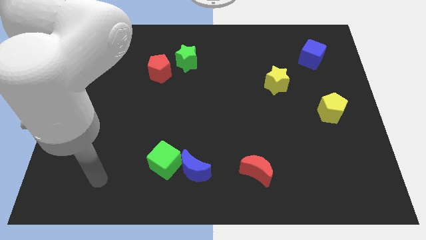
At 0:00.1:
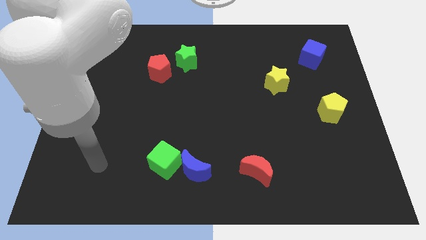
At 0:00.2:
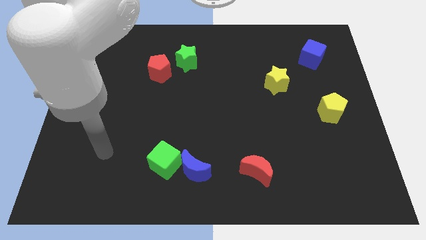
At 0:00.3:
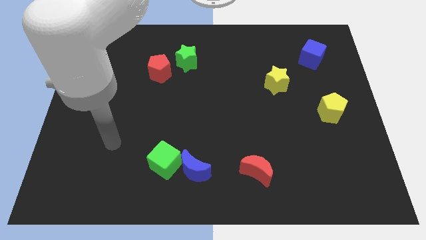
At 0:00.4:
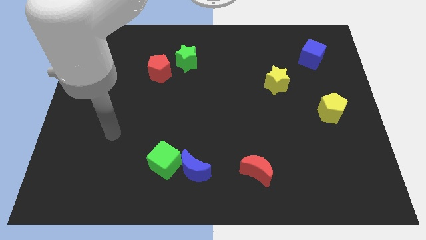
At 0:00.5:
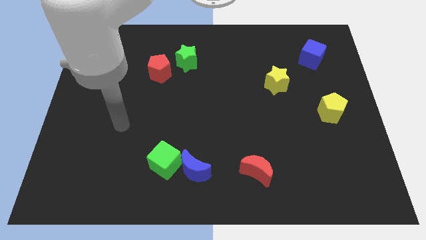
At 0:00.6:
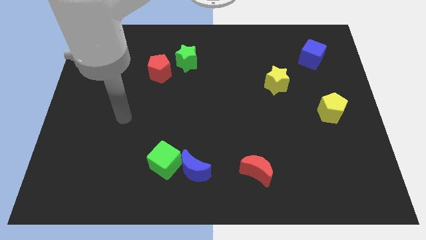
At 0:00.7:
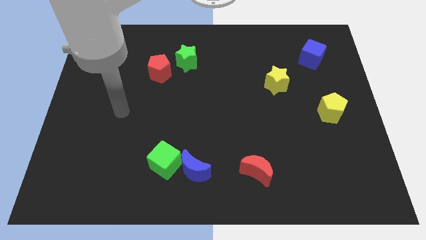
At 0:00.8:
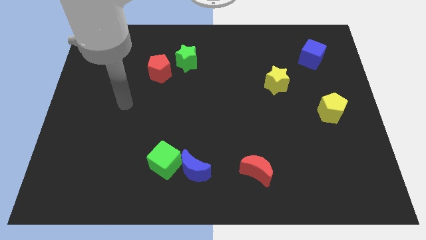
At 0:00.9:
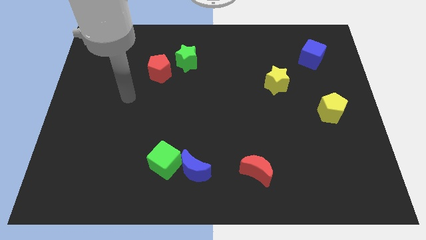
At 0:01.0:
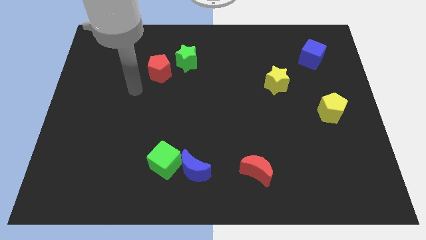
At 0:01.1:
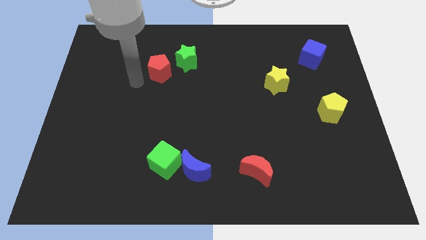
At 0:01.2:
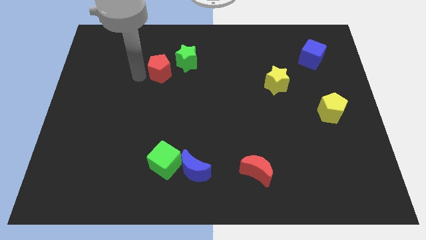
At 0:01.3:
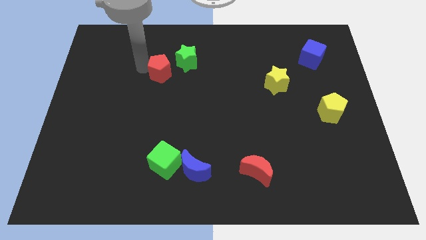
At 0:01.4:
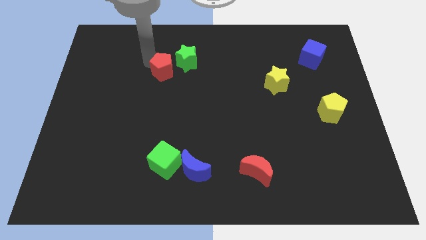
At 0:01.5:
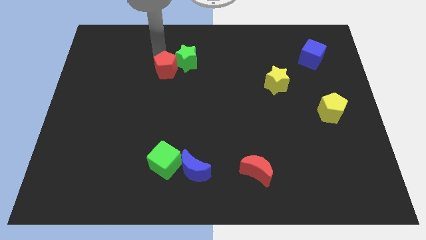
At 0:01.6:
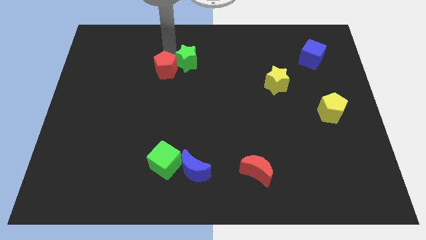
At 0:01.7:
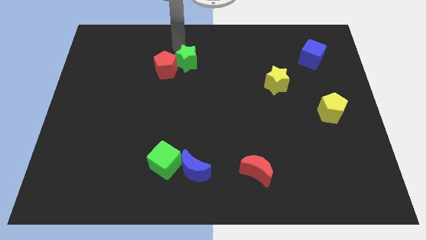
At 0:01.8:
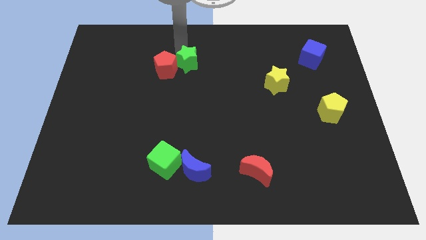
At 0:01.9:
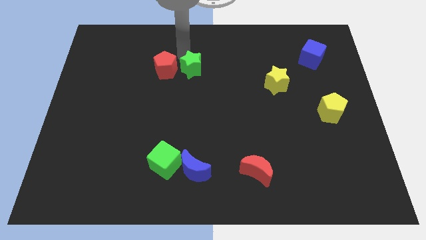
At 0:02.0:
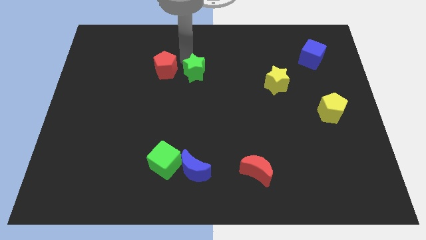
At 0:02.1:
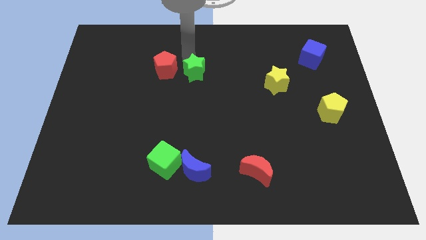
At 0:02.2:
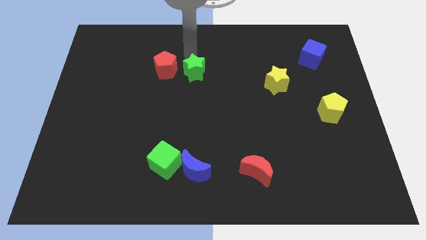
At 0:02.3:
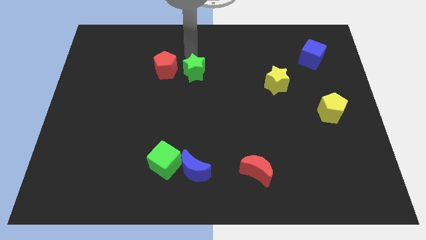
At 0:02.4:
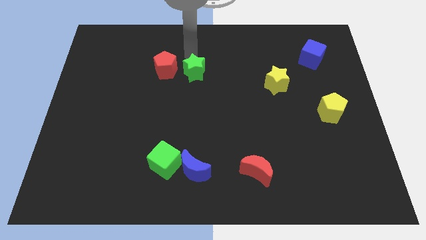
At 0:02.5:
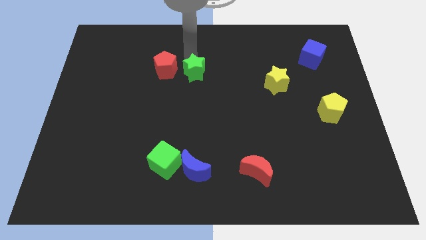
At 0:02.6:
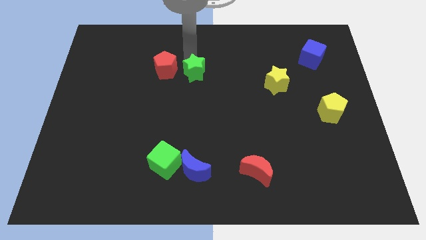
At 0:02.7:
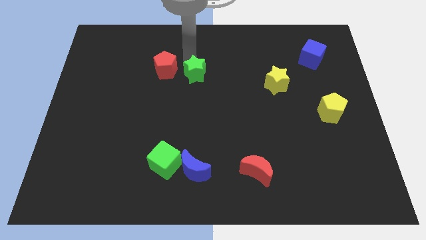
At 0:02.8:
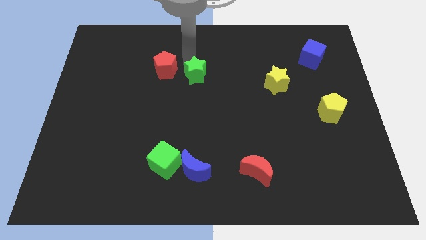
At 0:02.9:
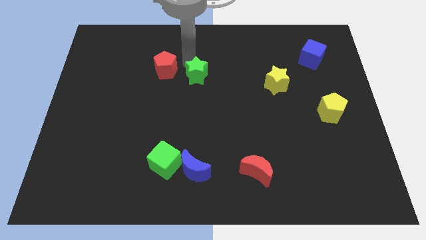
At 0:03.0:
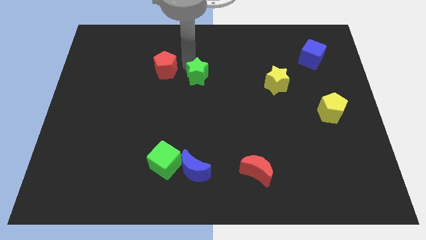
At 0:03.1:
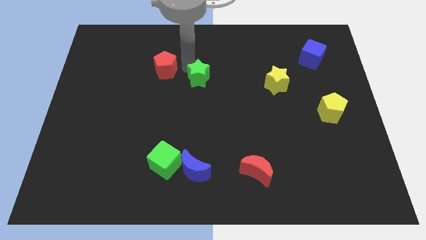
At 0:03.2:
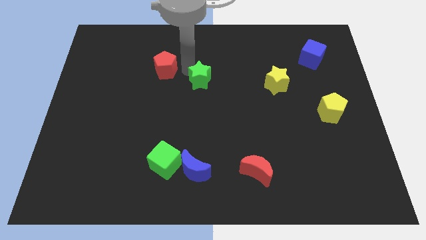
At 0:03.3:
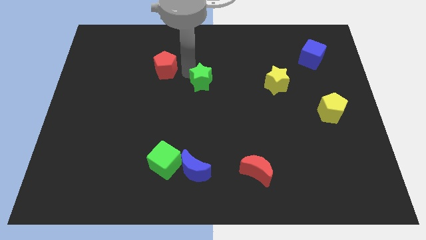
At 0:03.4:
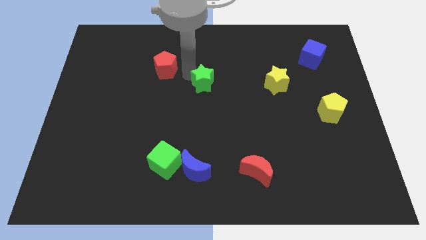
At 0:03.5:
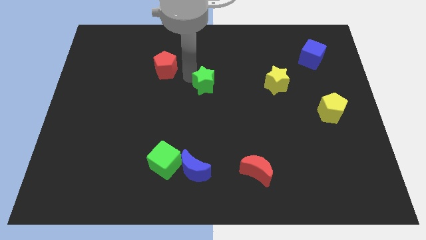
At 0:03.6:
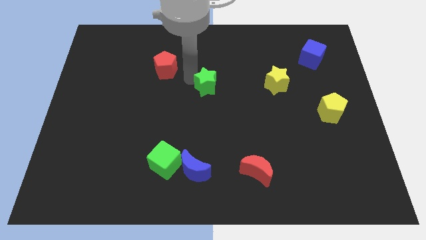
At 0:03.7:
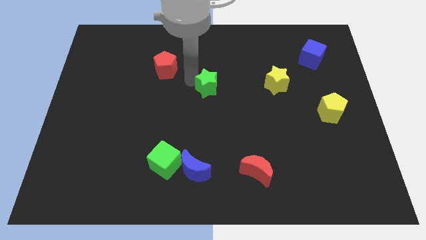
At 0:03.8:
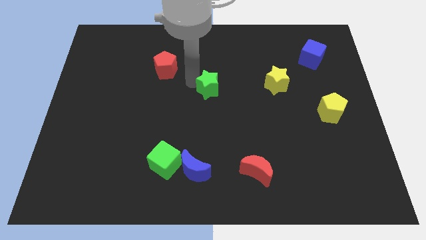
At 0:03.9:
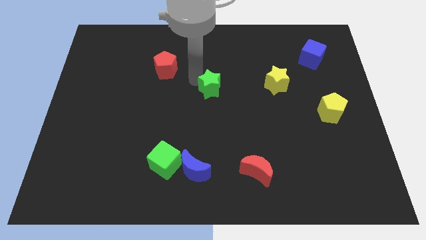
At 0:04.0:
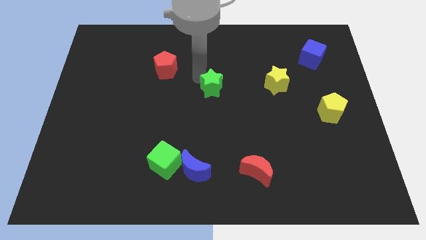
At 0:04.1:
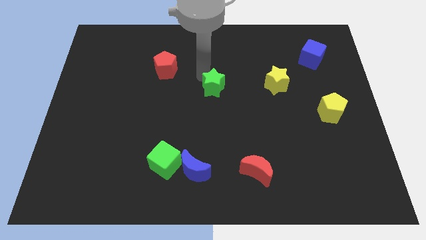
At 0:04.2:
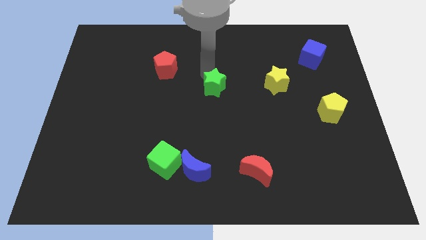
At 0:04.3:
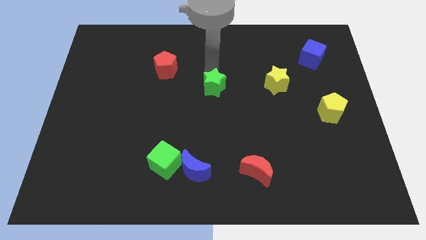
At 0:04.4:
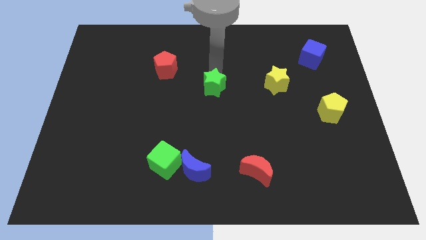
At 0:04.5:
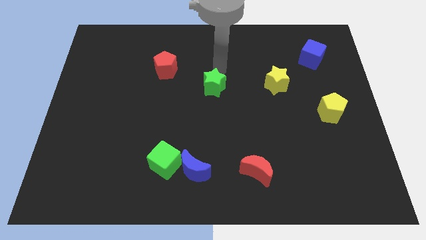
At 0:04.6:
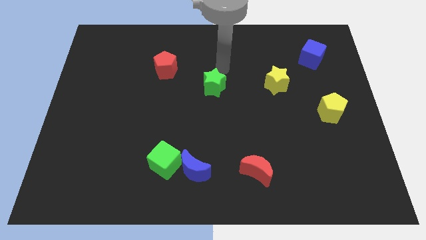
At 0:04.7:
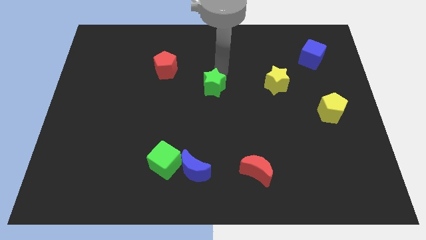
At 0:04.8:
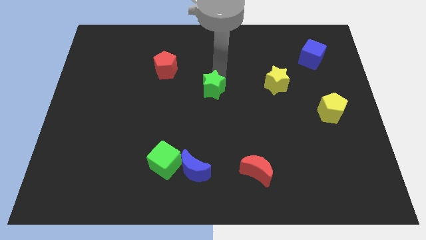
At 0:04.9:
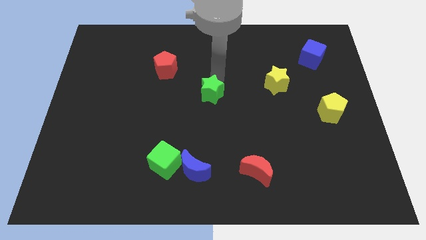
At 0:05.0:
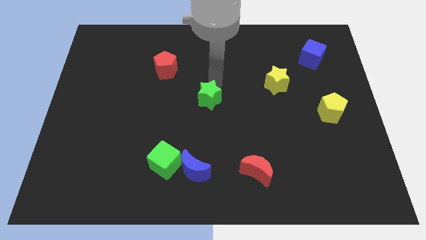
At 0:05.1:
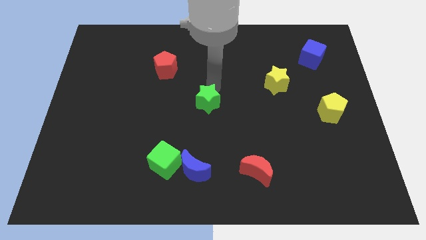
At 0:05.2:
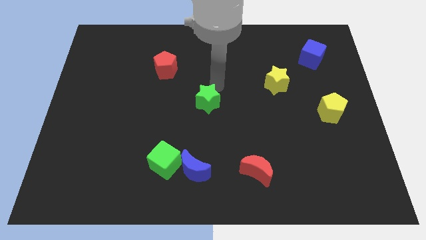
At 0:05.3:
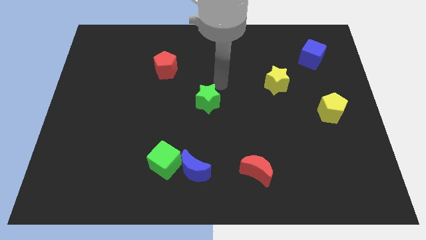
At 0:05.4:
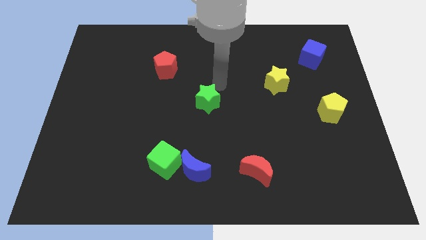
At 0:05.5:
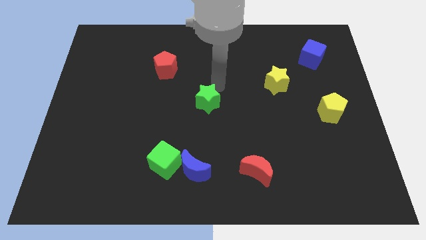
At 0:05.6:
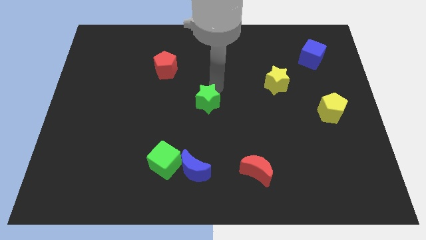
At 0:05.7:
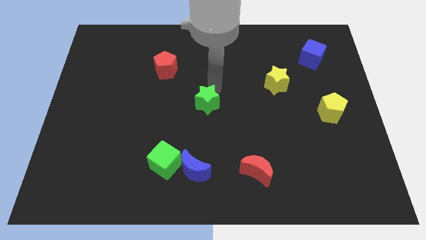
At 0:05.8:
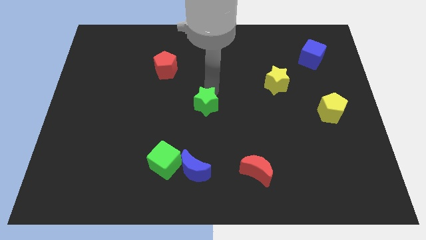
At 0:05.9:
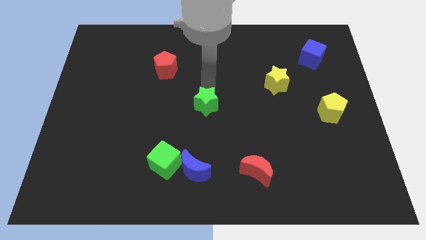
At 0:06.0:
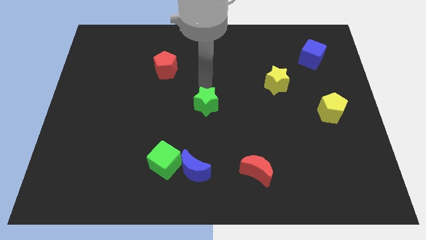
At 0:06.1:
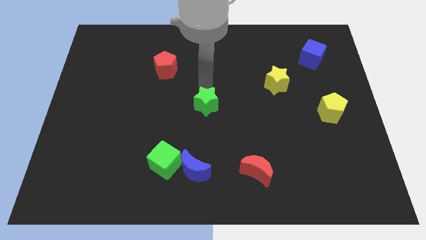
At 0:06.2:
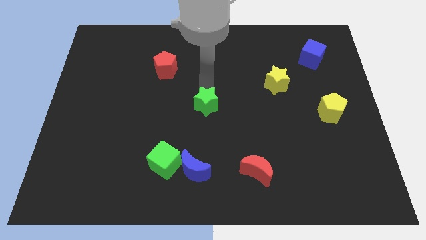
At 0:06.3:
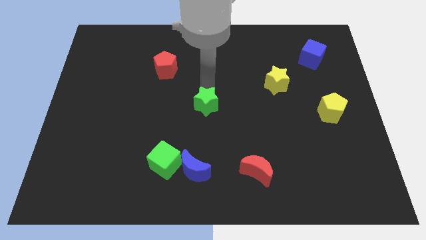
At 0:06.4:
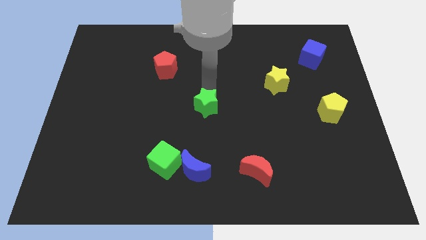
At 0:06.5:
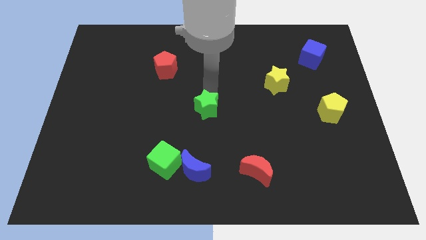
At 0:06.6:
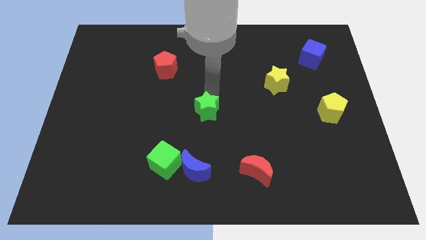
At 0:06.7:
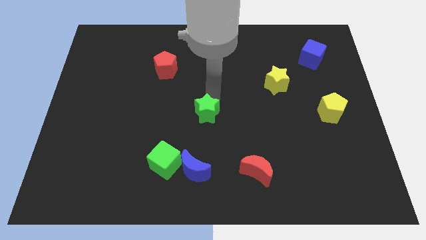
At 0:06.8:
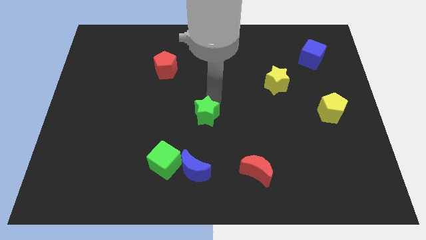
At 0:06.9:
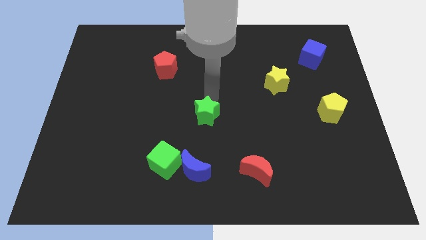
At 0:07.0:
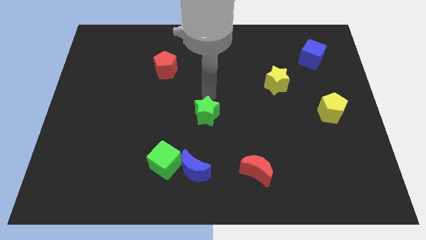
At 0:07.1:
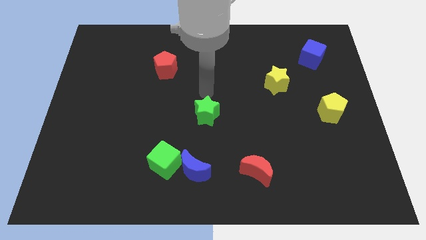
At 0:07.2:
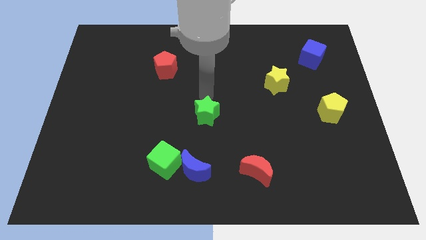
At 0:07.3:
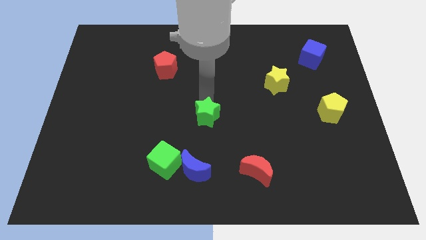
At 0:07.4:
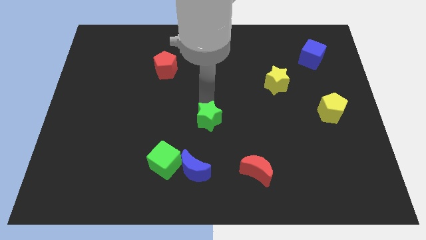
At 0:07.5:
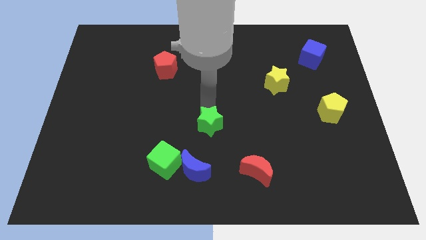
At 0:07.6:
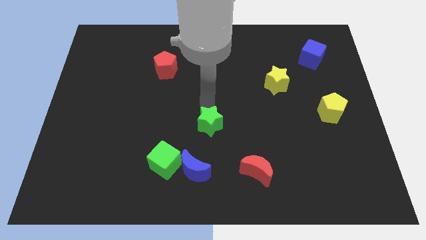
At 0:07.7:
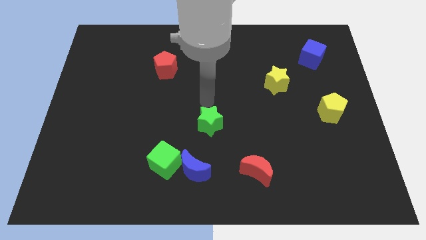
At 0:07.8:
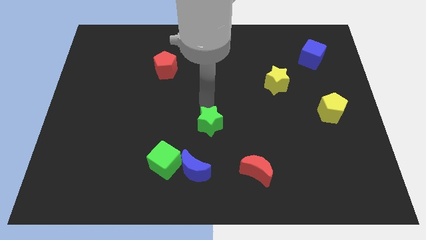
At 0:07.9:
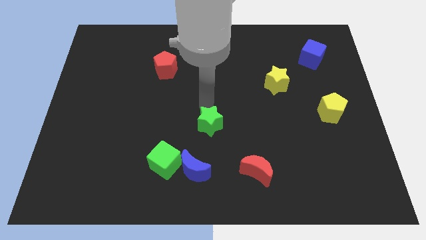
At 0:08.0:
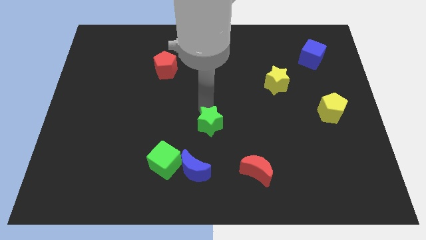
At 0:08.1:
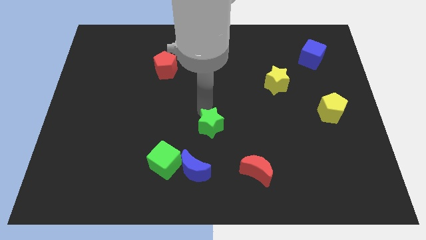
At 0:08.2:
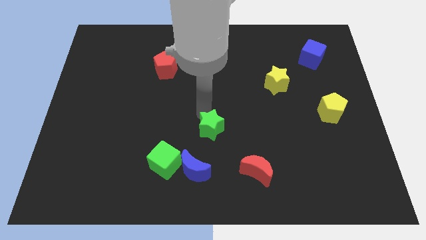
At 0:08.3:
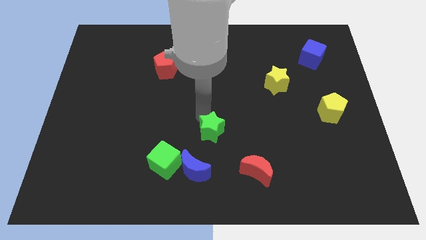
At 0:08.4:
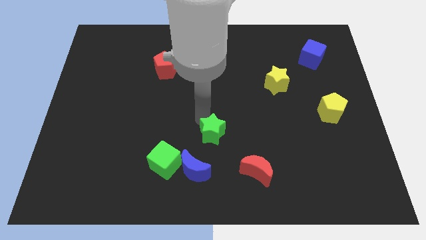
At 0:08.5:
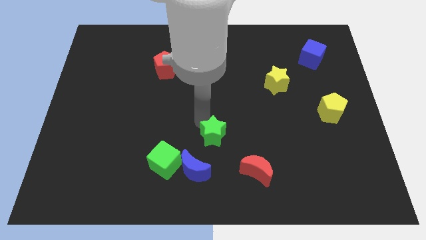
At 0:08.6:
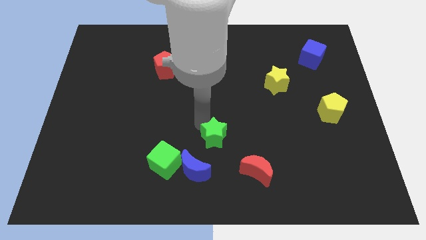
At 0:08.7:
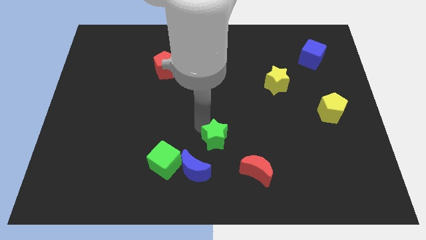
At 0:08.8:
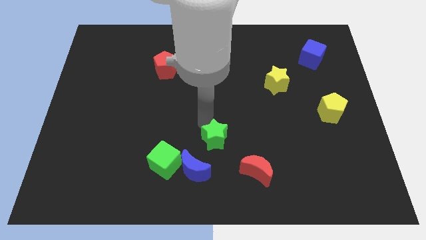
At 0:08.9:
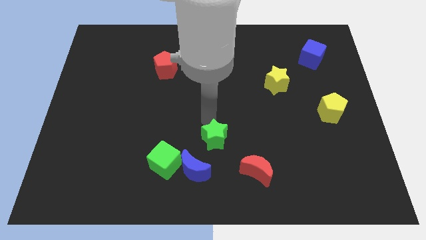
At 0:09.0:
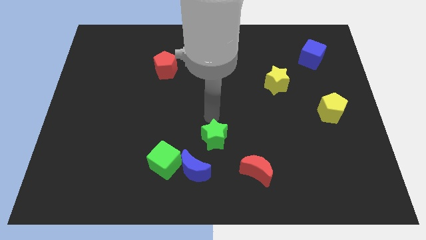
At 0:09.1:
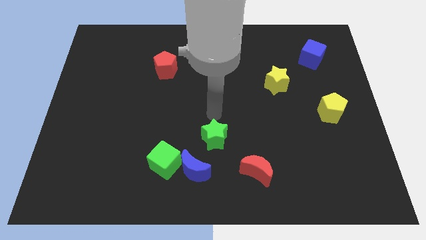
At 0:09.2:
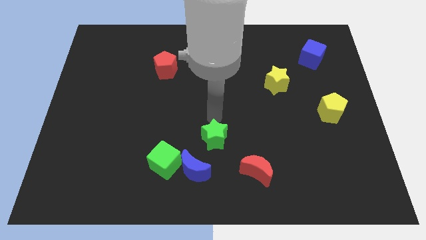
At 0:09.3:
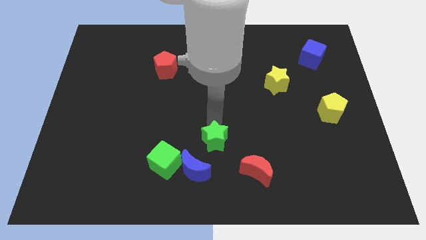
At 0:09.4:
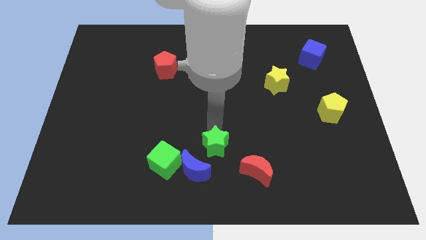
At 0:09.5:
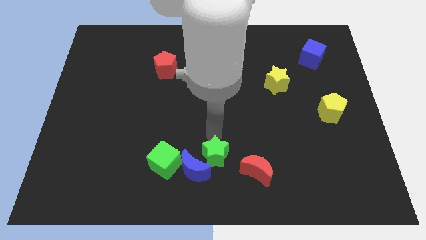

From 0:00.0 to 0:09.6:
push the green star to the bottom
